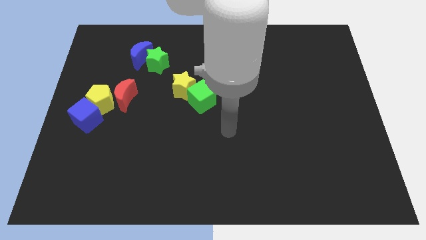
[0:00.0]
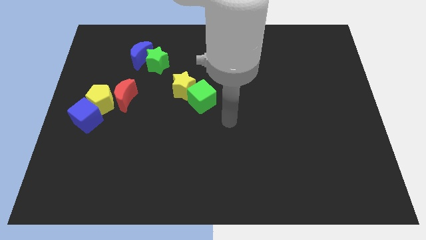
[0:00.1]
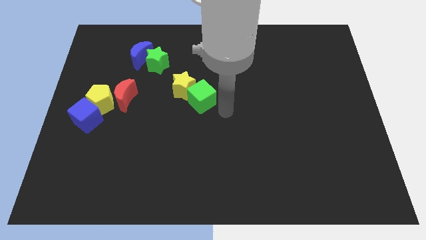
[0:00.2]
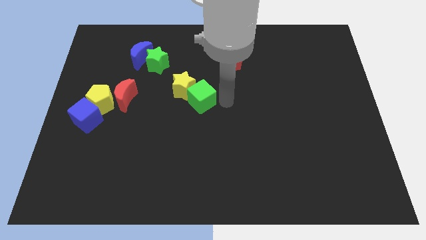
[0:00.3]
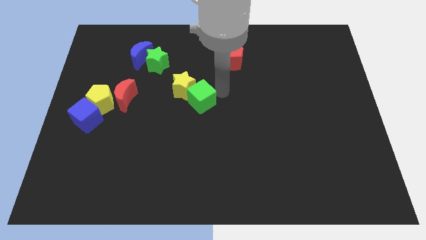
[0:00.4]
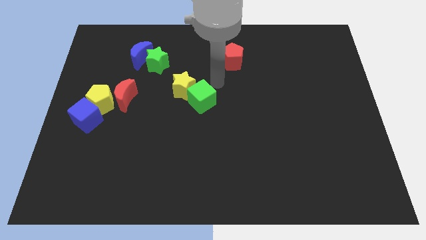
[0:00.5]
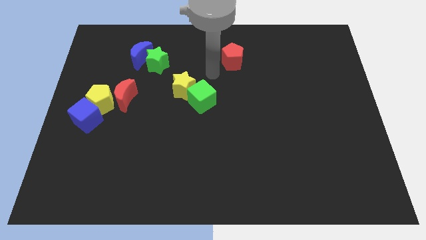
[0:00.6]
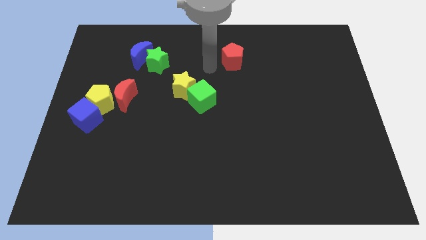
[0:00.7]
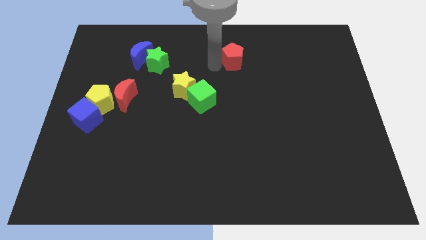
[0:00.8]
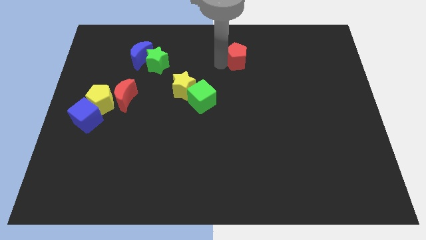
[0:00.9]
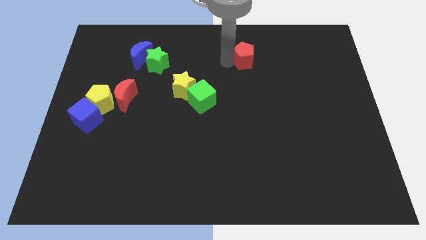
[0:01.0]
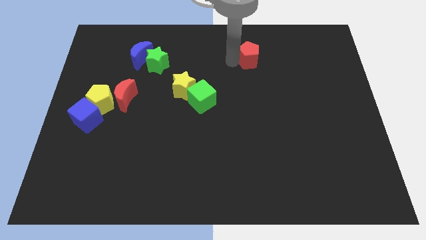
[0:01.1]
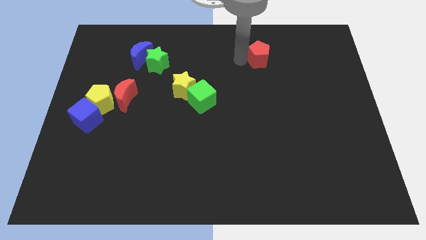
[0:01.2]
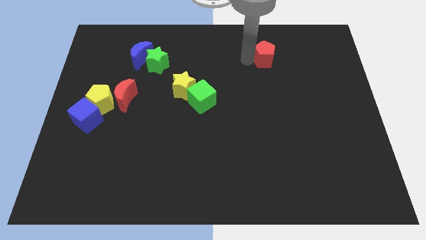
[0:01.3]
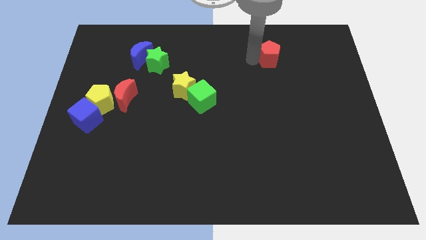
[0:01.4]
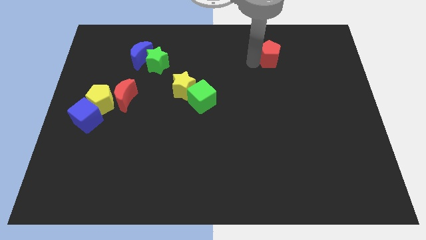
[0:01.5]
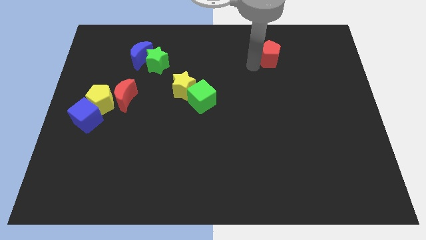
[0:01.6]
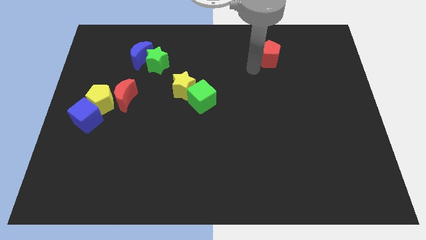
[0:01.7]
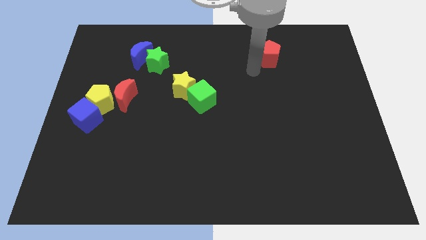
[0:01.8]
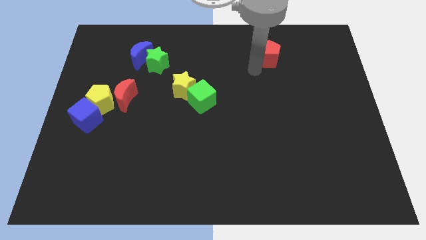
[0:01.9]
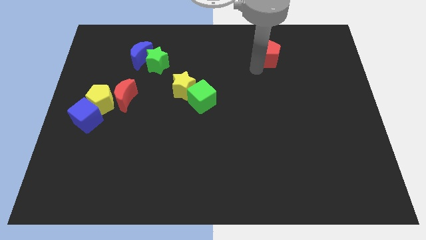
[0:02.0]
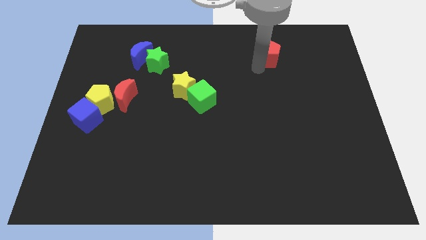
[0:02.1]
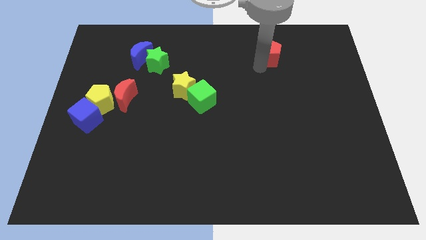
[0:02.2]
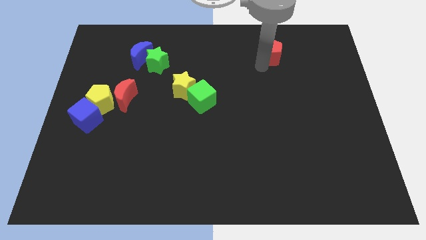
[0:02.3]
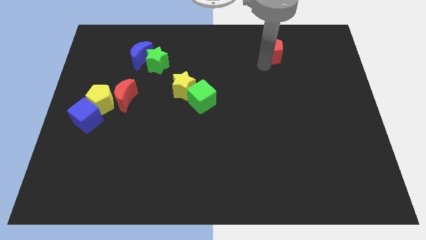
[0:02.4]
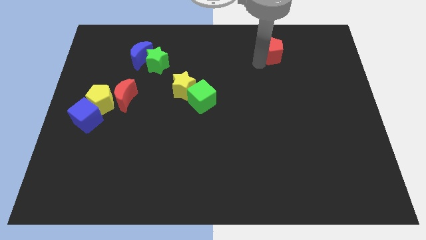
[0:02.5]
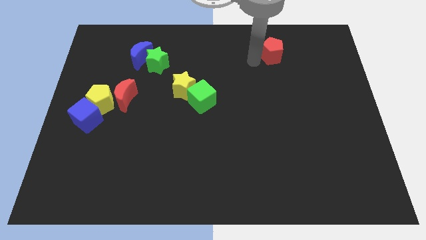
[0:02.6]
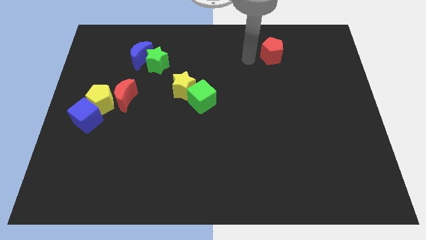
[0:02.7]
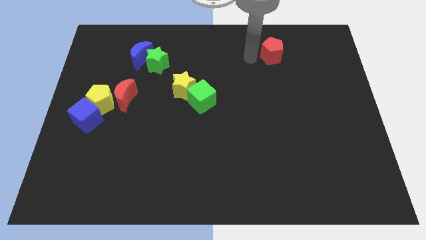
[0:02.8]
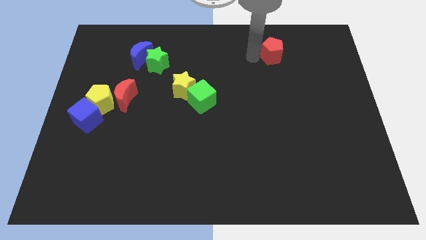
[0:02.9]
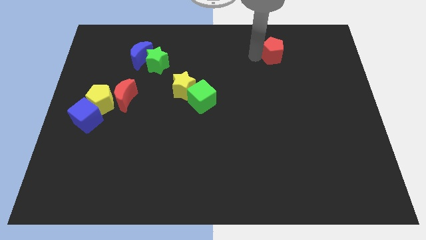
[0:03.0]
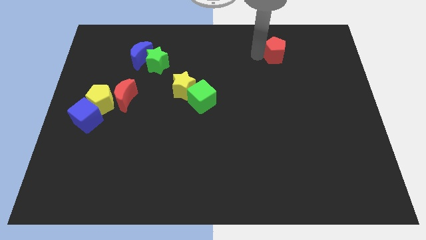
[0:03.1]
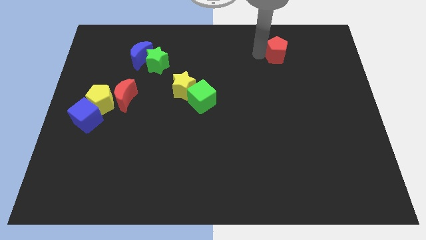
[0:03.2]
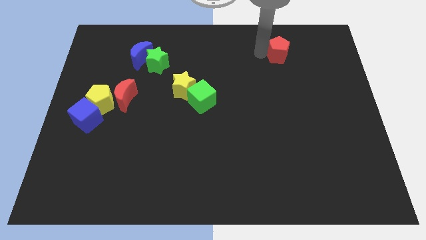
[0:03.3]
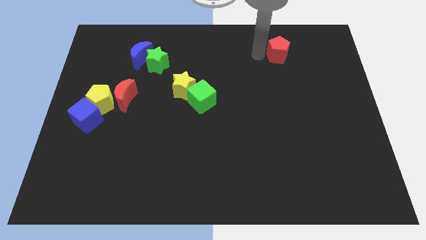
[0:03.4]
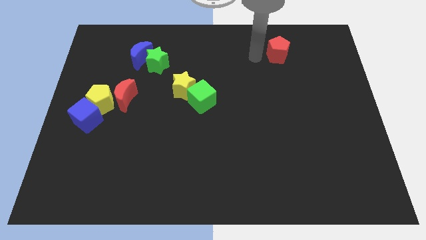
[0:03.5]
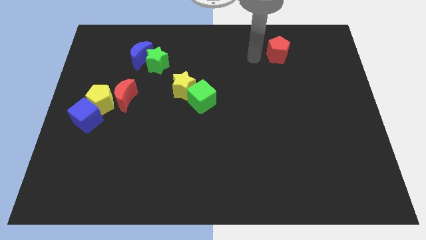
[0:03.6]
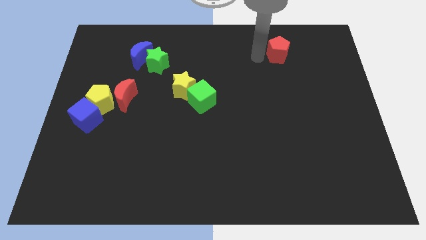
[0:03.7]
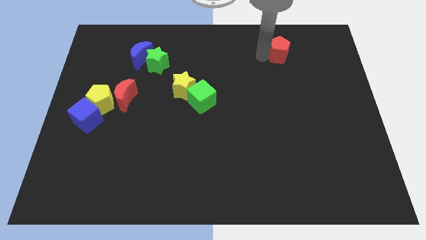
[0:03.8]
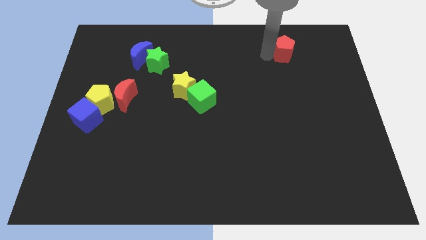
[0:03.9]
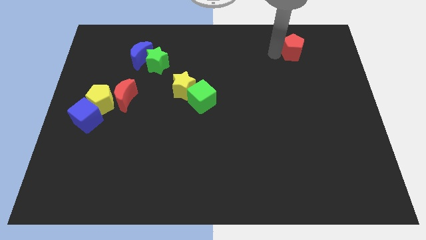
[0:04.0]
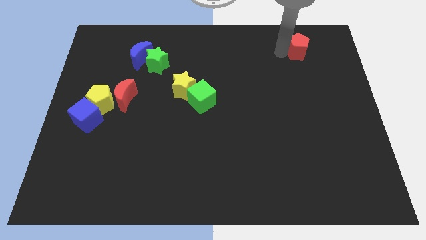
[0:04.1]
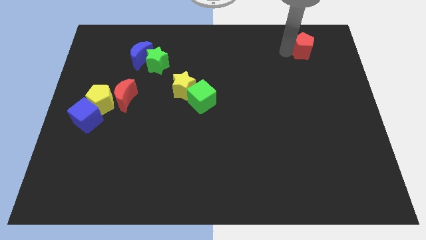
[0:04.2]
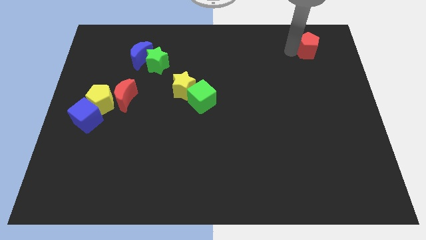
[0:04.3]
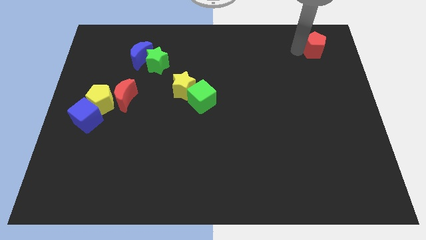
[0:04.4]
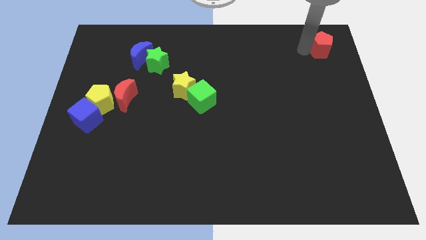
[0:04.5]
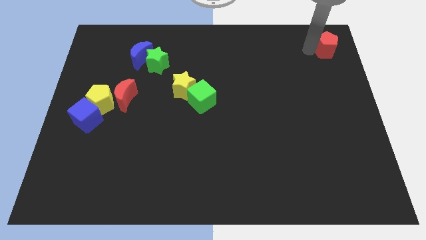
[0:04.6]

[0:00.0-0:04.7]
put the red pentagon to the top right corner

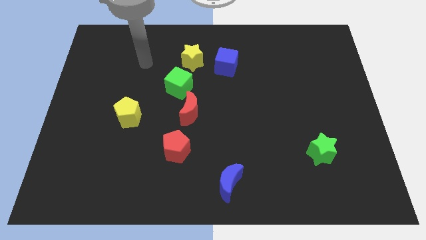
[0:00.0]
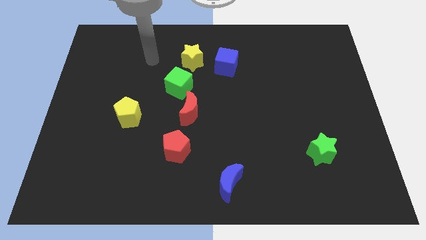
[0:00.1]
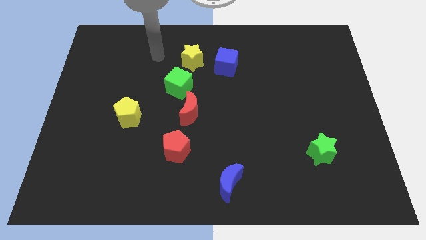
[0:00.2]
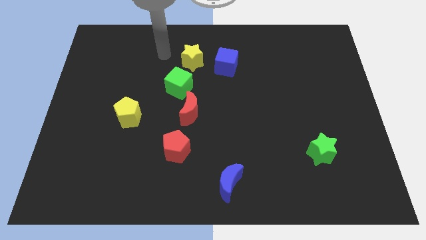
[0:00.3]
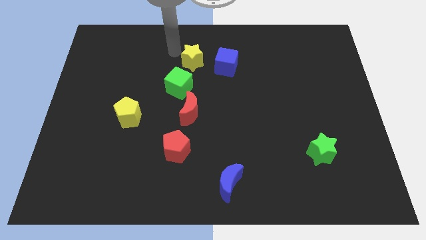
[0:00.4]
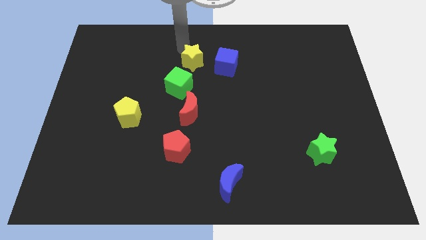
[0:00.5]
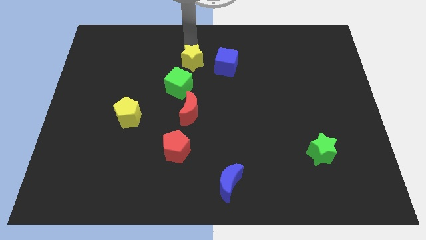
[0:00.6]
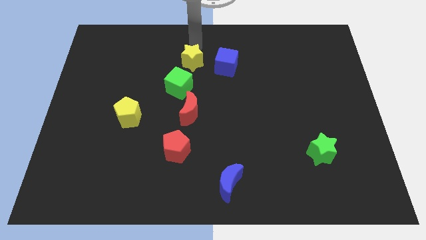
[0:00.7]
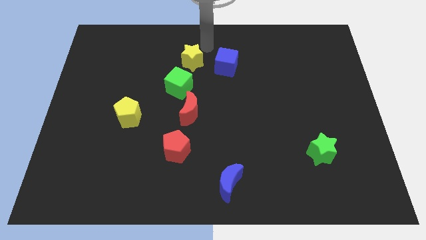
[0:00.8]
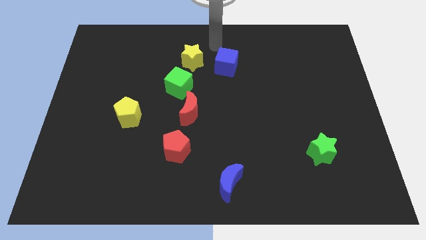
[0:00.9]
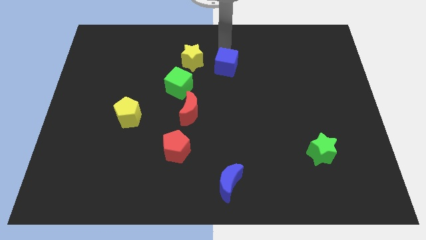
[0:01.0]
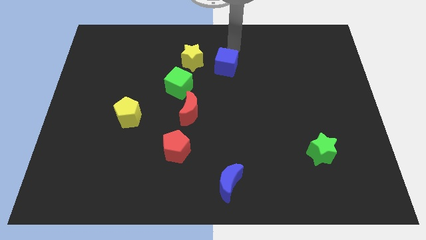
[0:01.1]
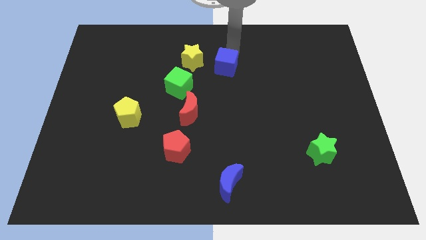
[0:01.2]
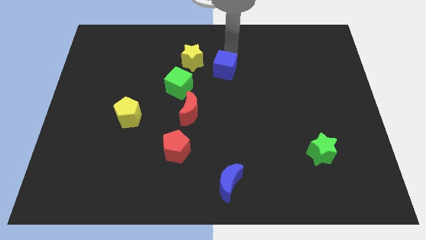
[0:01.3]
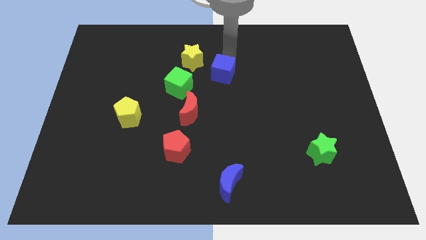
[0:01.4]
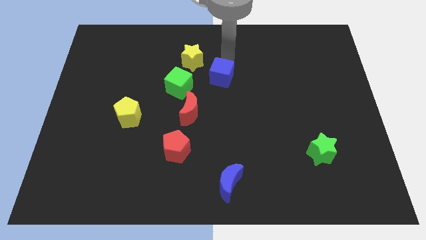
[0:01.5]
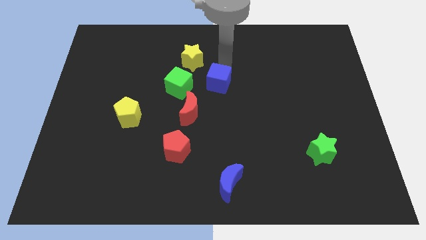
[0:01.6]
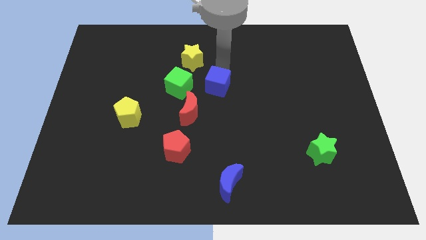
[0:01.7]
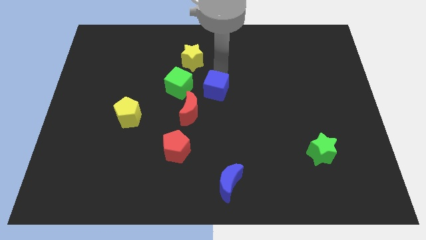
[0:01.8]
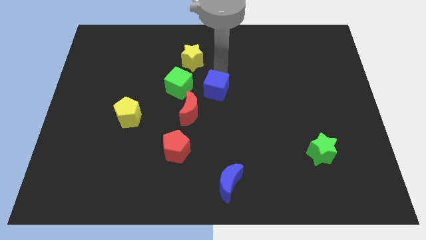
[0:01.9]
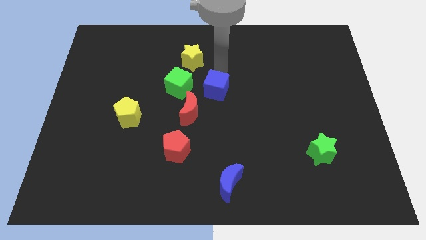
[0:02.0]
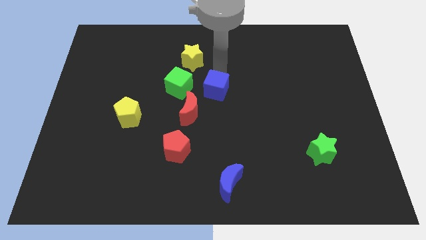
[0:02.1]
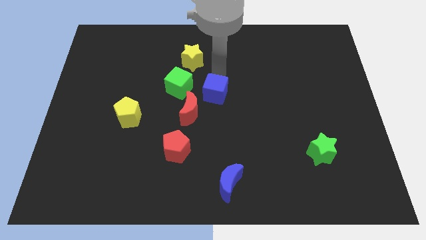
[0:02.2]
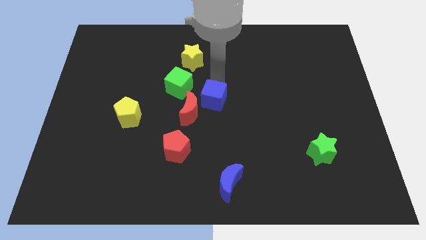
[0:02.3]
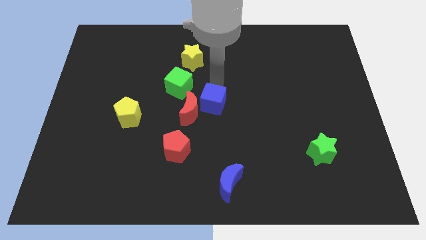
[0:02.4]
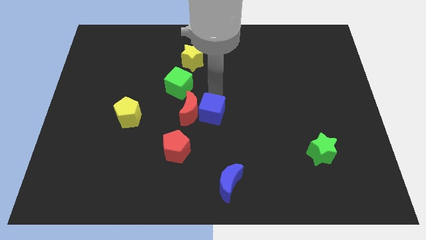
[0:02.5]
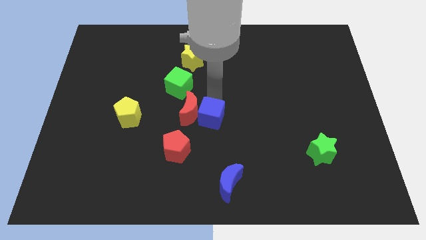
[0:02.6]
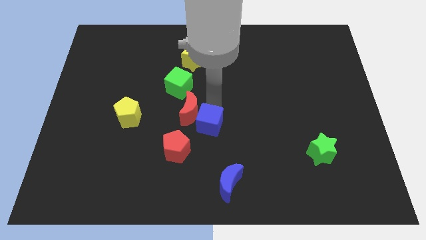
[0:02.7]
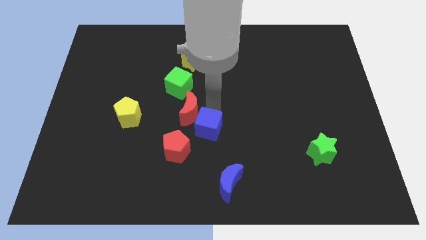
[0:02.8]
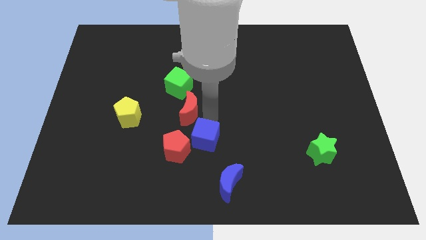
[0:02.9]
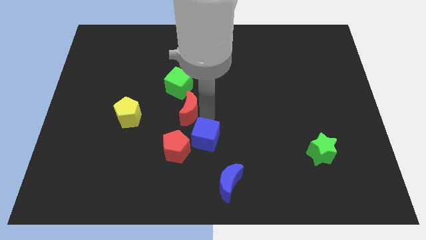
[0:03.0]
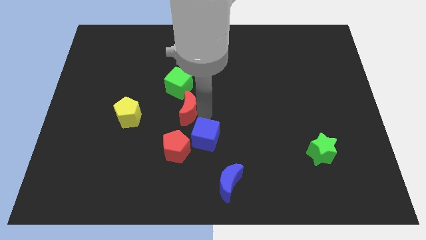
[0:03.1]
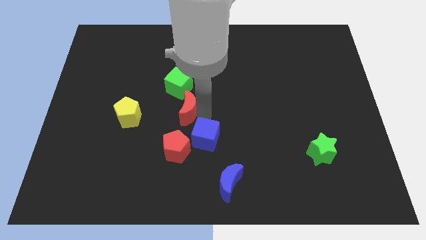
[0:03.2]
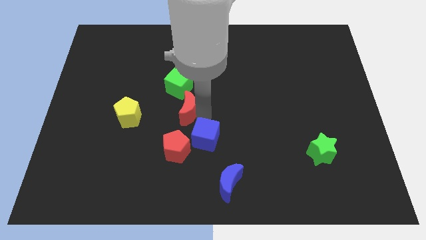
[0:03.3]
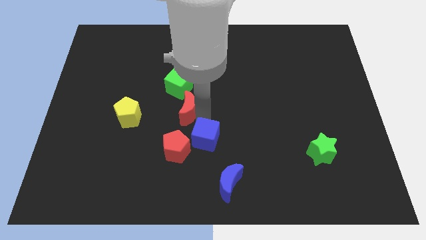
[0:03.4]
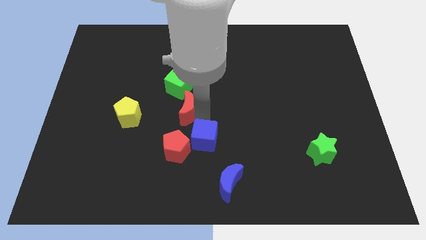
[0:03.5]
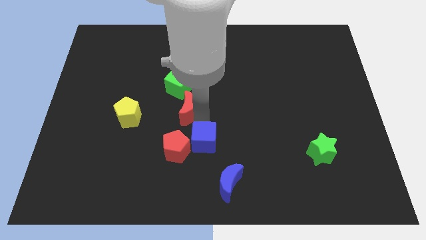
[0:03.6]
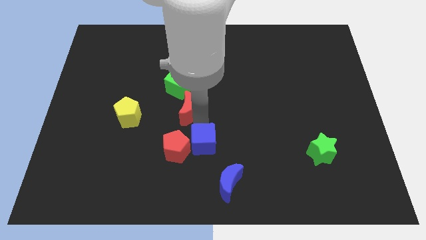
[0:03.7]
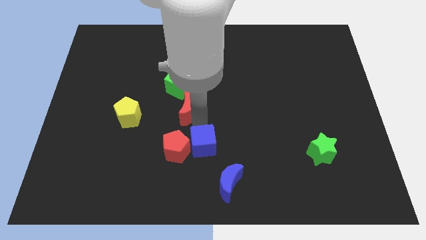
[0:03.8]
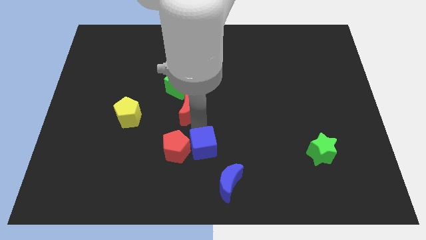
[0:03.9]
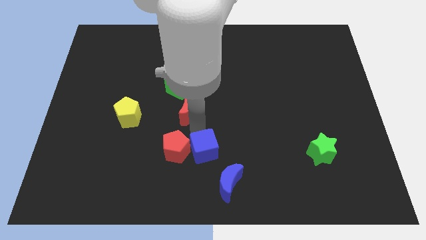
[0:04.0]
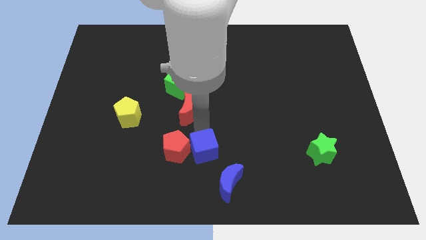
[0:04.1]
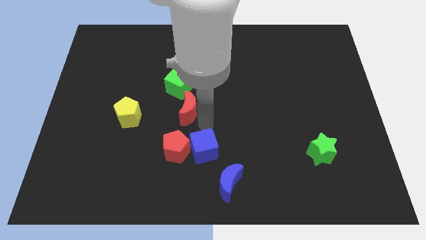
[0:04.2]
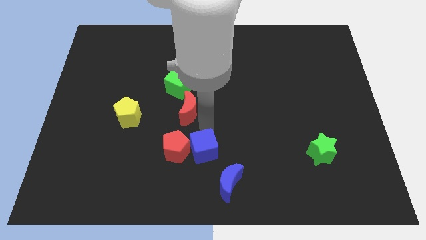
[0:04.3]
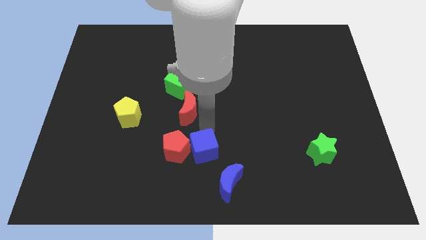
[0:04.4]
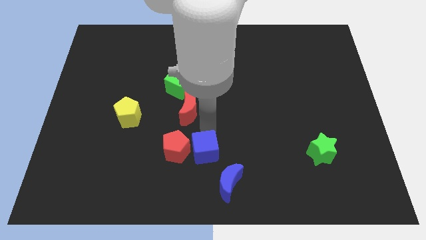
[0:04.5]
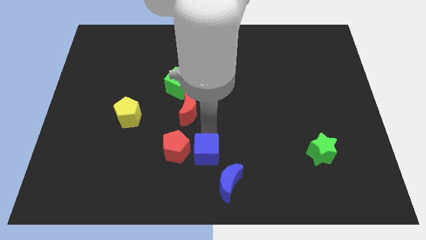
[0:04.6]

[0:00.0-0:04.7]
put the blue cube to the bottom
